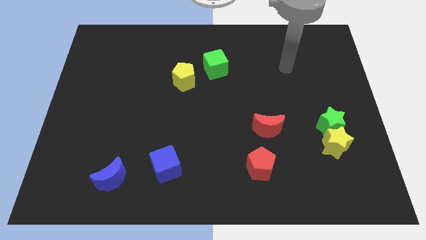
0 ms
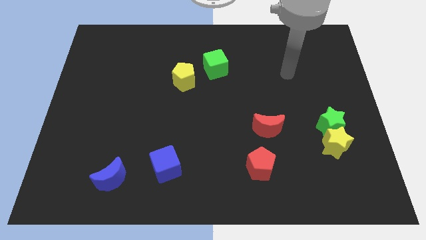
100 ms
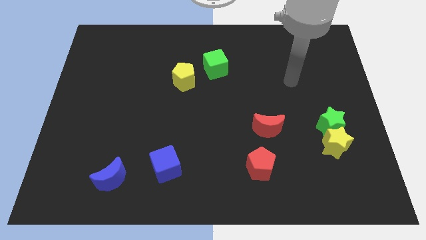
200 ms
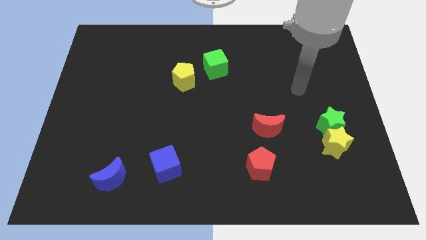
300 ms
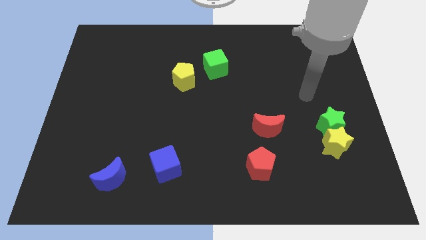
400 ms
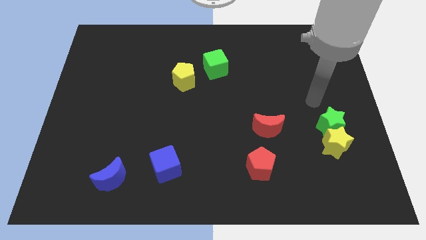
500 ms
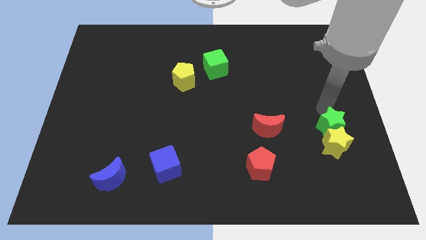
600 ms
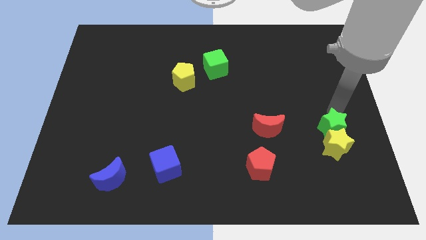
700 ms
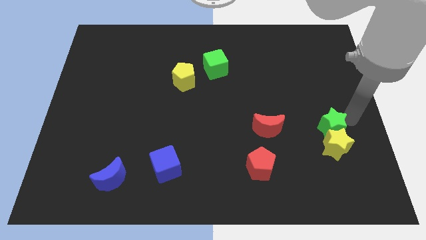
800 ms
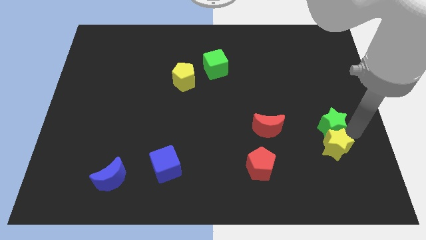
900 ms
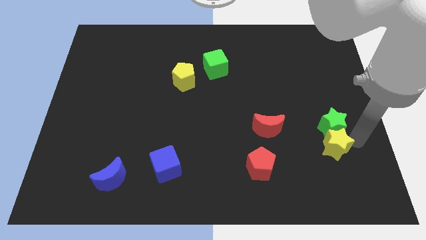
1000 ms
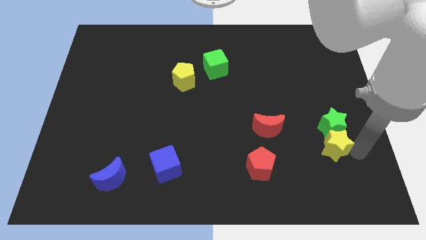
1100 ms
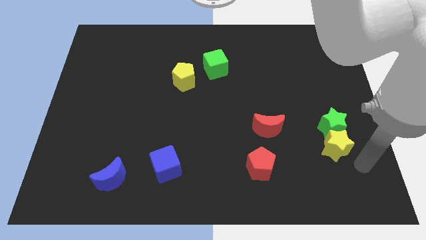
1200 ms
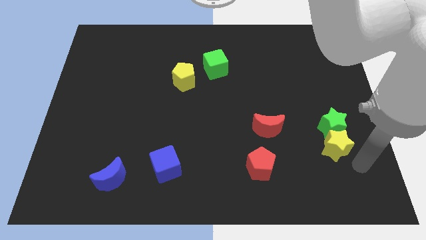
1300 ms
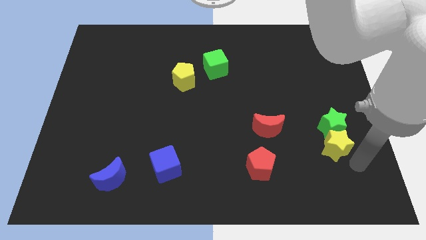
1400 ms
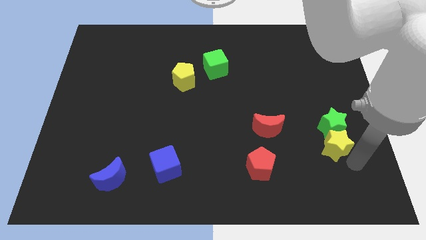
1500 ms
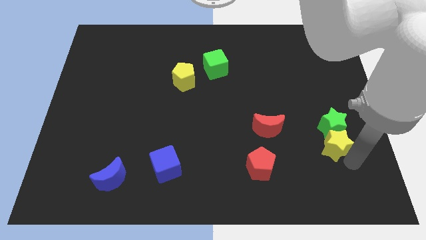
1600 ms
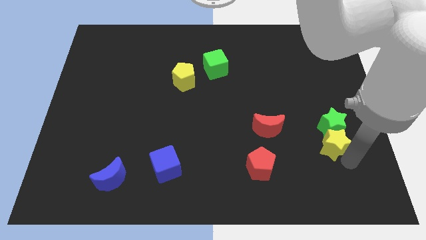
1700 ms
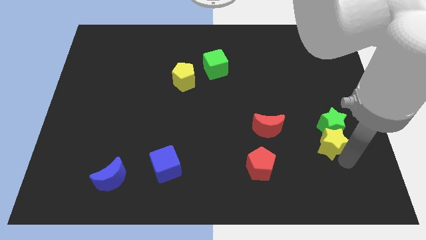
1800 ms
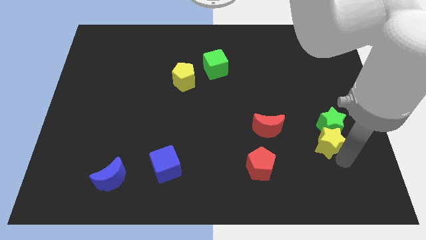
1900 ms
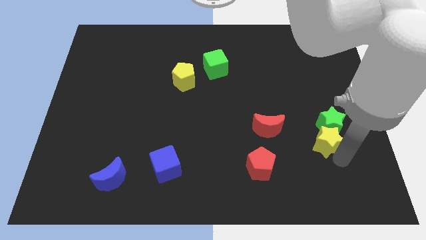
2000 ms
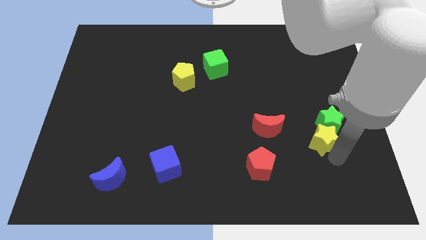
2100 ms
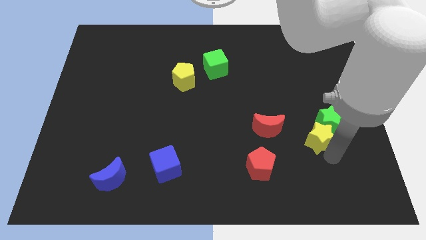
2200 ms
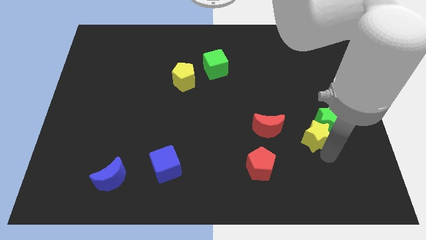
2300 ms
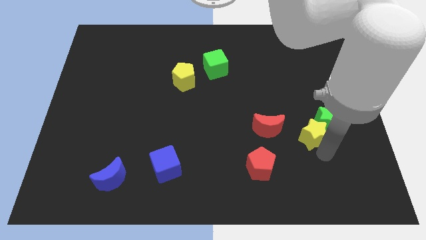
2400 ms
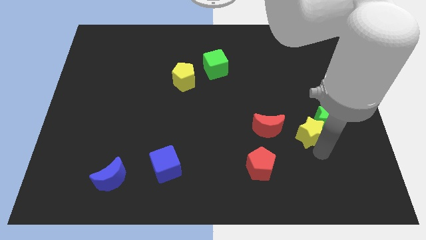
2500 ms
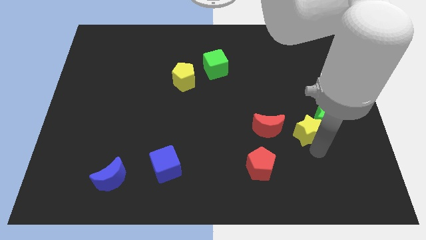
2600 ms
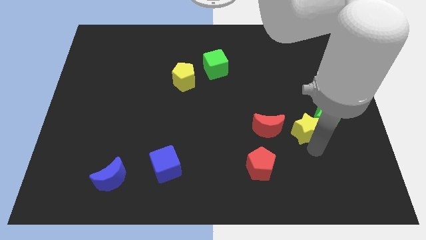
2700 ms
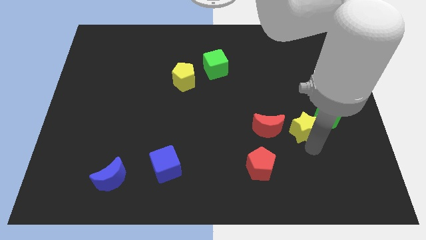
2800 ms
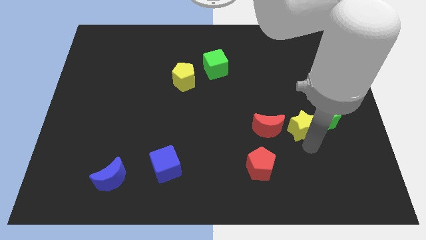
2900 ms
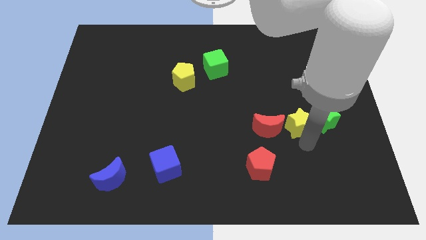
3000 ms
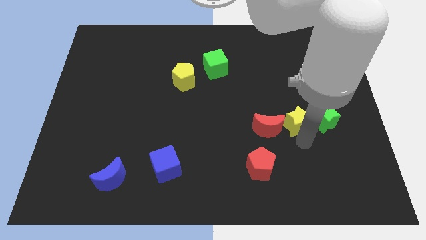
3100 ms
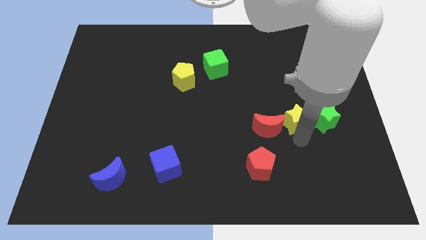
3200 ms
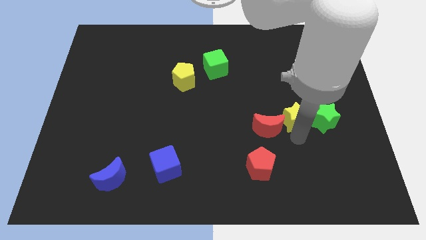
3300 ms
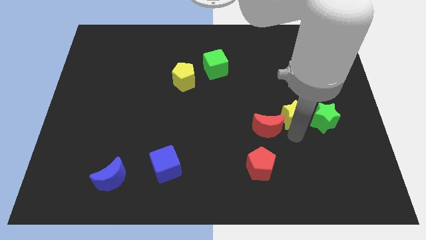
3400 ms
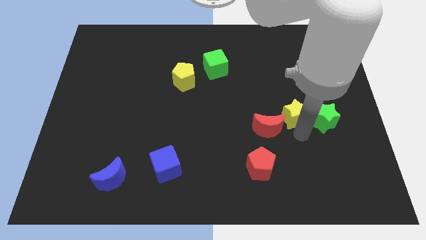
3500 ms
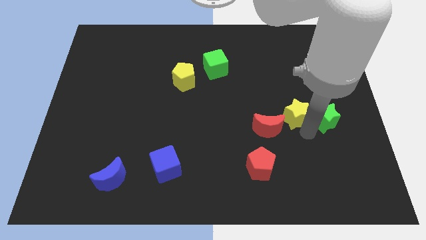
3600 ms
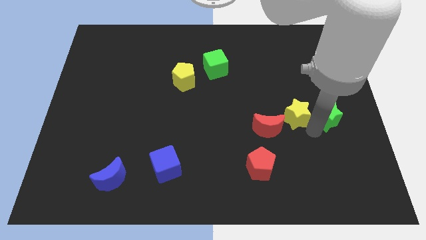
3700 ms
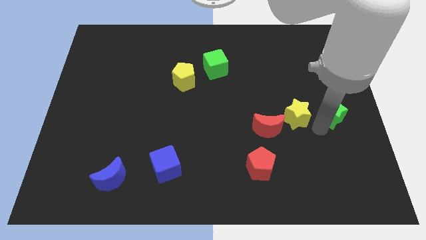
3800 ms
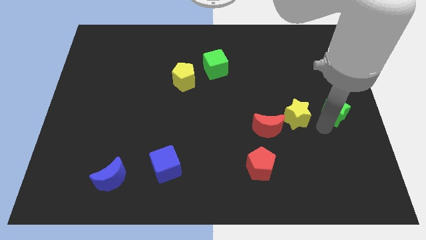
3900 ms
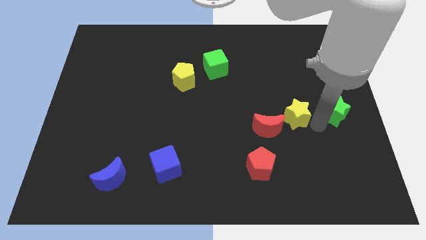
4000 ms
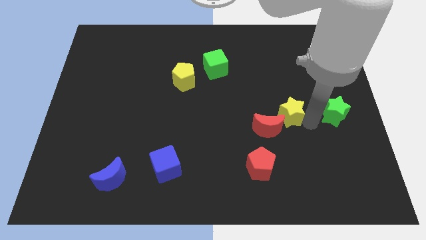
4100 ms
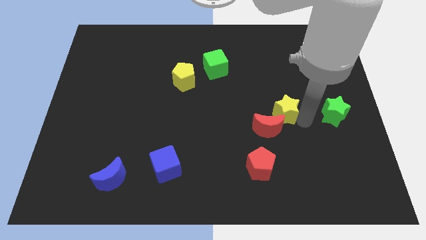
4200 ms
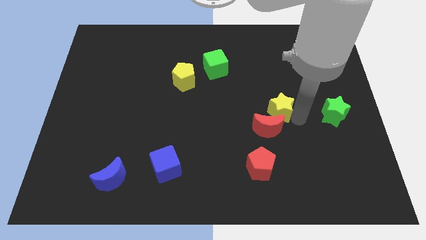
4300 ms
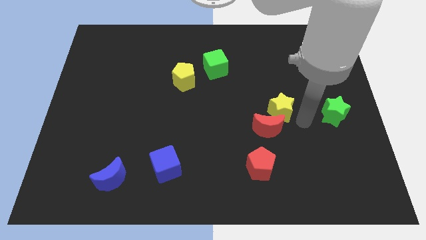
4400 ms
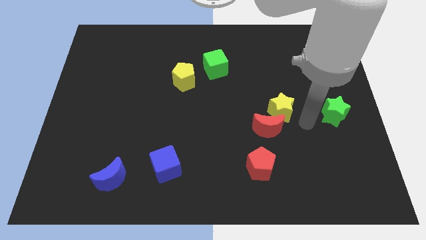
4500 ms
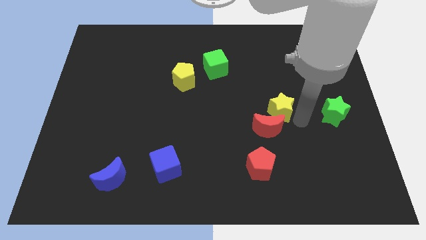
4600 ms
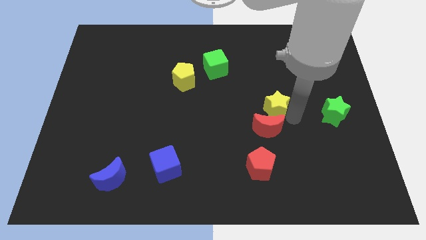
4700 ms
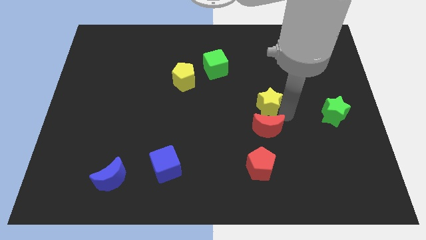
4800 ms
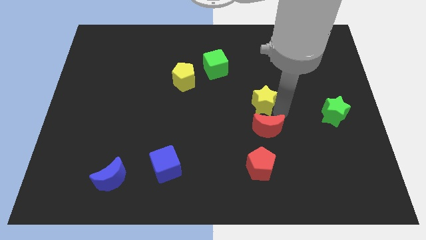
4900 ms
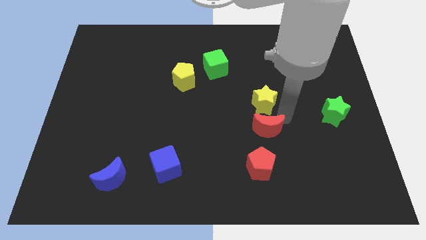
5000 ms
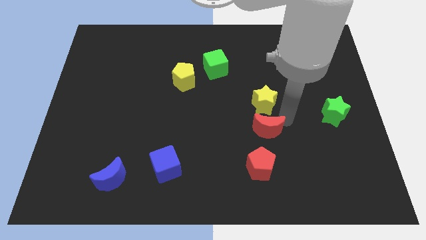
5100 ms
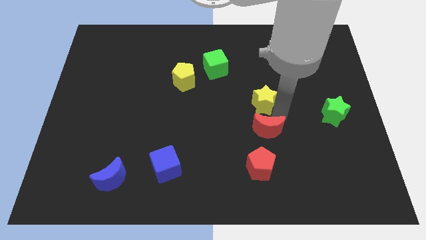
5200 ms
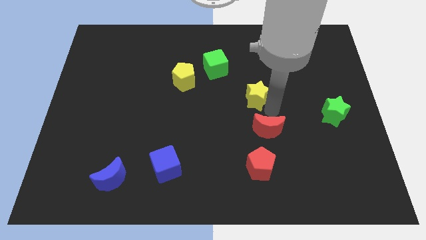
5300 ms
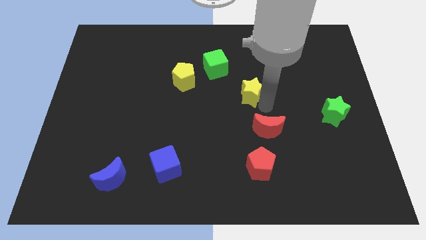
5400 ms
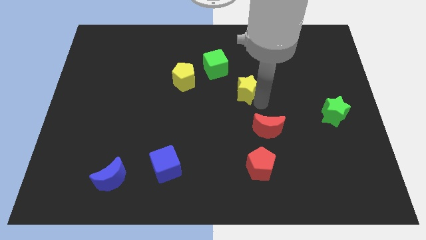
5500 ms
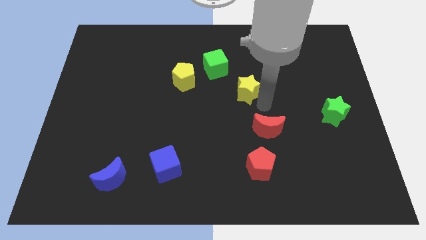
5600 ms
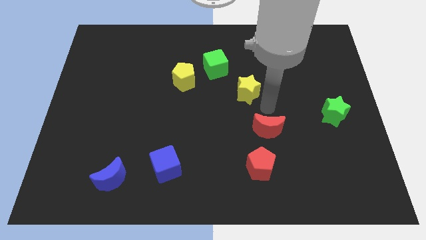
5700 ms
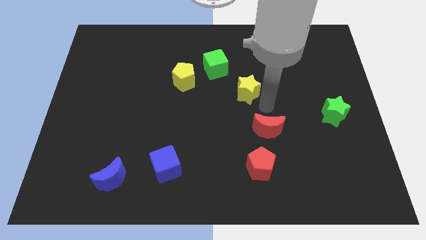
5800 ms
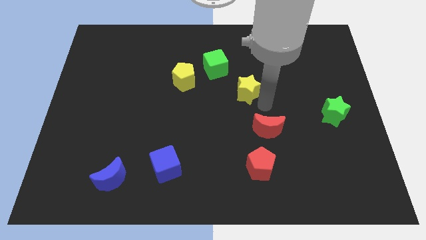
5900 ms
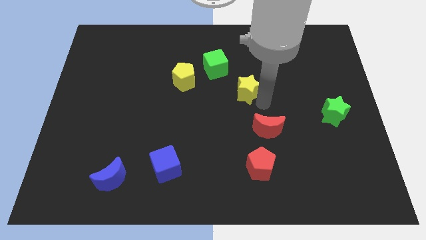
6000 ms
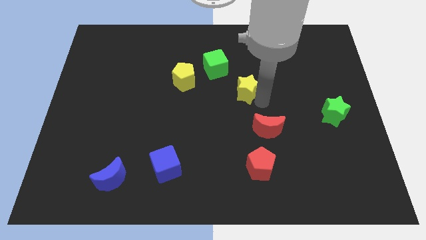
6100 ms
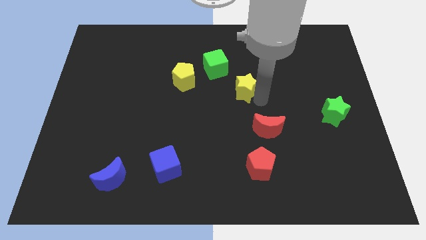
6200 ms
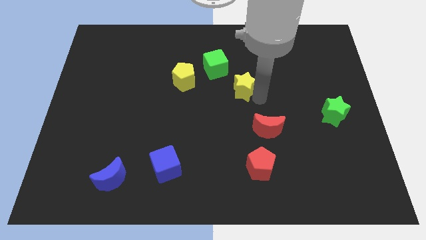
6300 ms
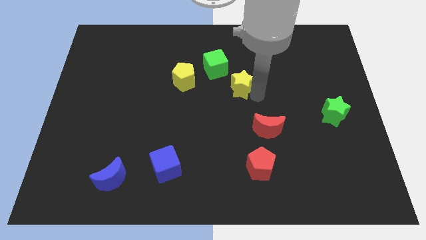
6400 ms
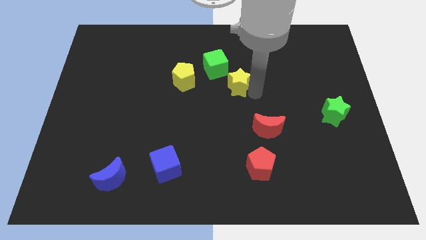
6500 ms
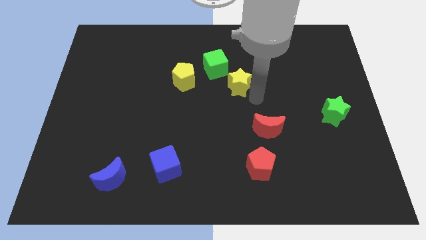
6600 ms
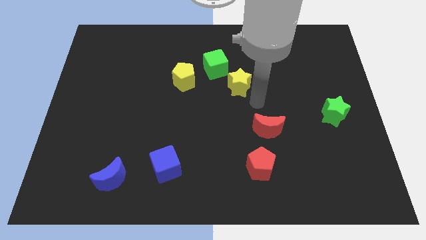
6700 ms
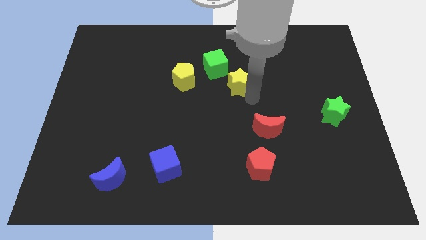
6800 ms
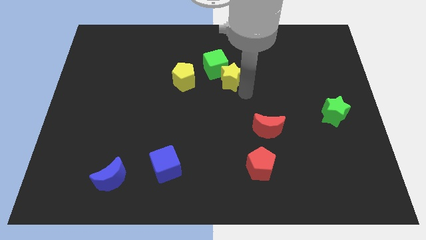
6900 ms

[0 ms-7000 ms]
slide the yellow star to the green cube

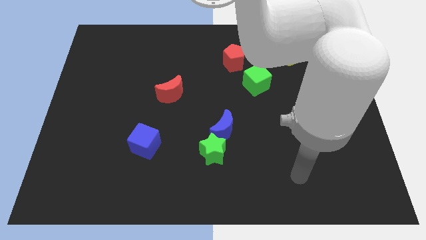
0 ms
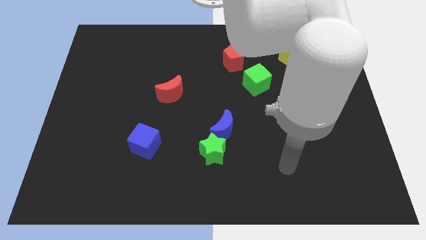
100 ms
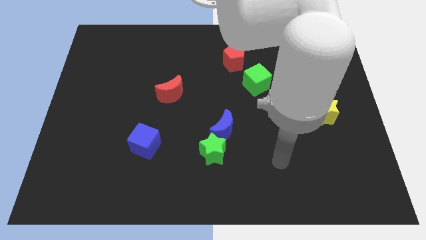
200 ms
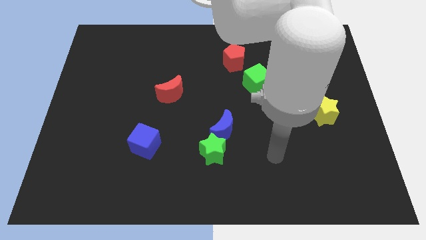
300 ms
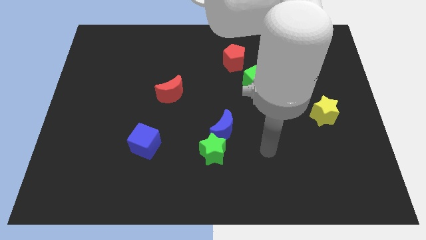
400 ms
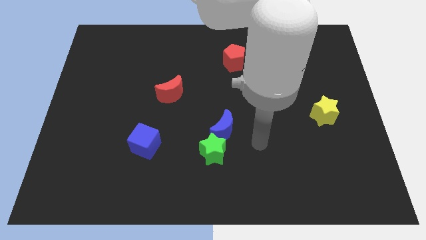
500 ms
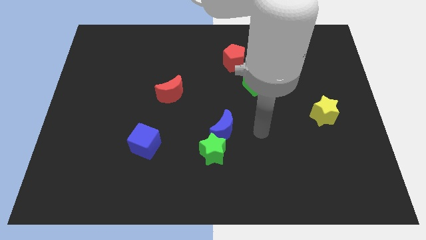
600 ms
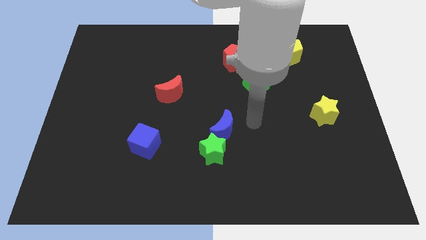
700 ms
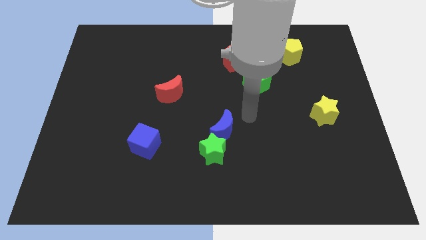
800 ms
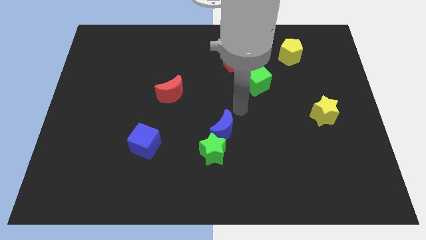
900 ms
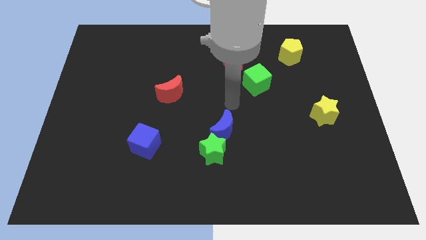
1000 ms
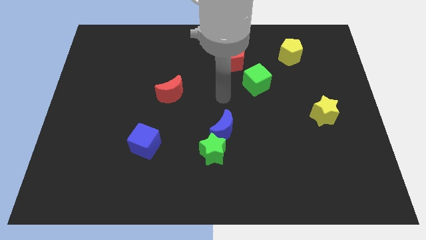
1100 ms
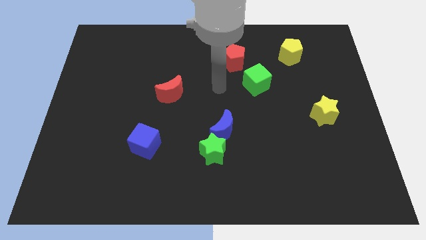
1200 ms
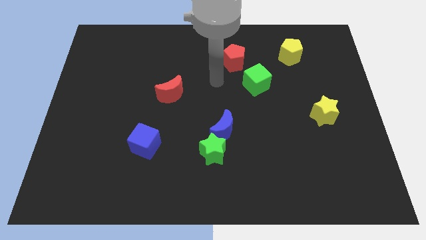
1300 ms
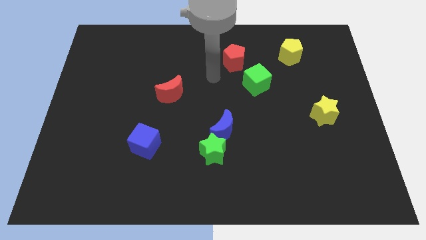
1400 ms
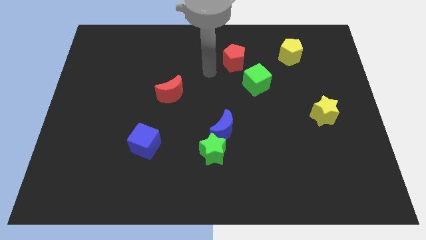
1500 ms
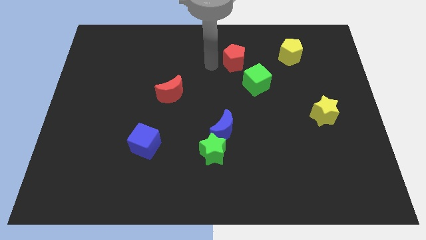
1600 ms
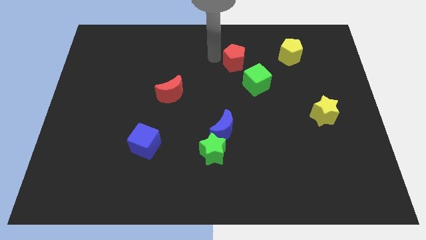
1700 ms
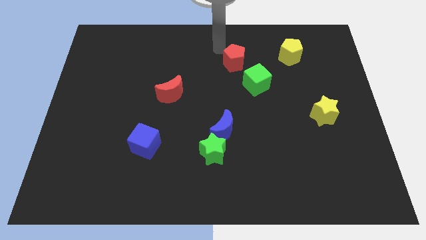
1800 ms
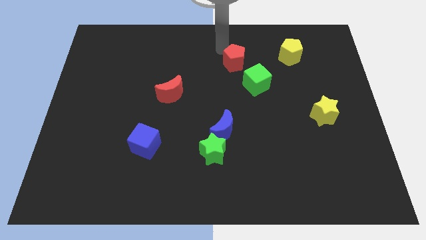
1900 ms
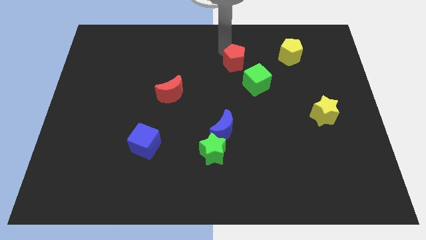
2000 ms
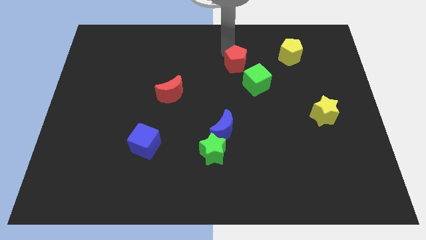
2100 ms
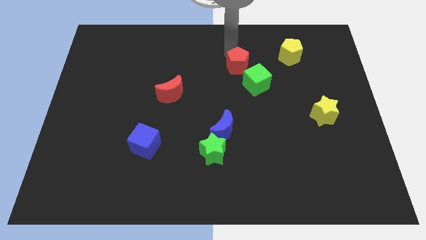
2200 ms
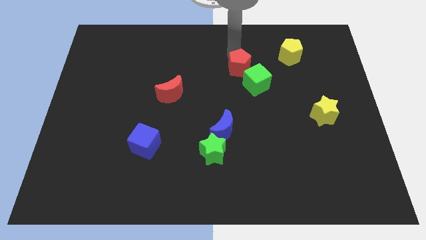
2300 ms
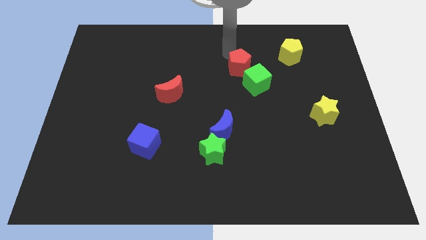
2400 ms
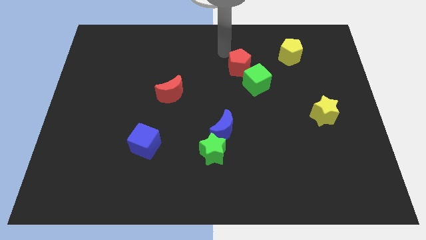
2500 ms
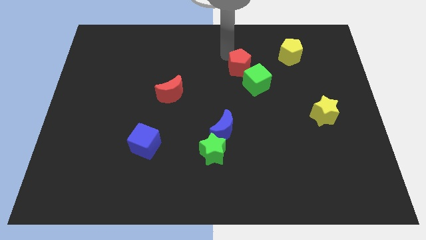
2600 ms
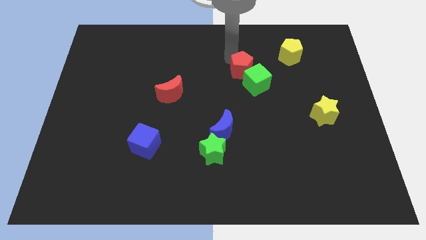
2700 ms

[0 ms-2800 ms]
move the red pentagon close to the green cube
